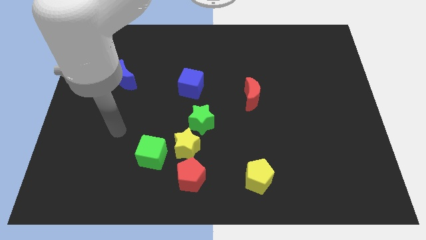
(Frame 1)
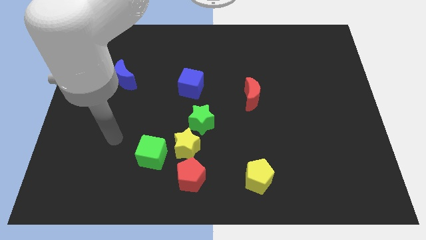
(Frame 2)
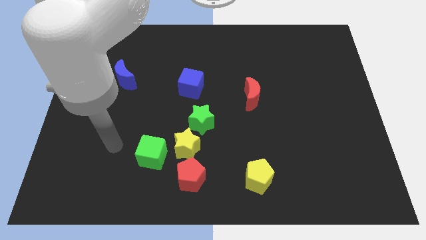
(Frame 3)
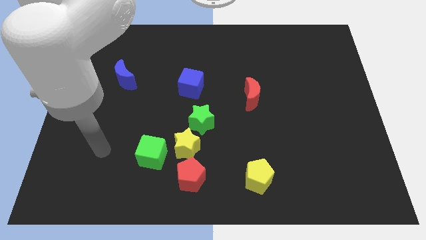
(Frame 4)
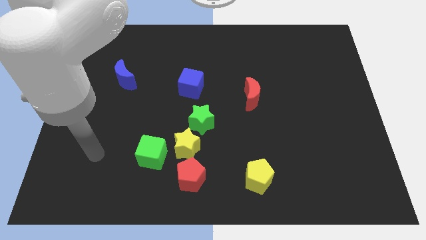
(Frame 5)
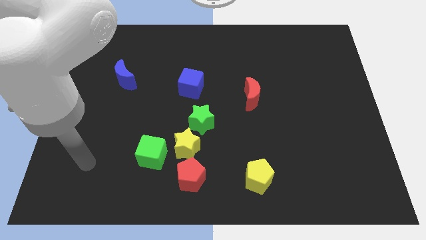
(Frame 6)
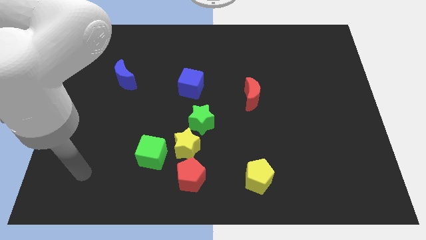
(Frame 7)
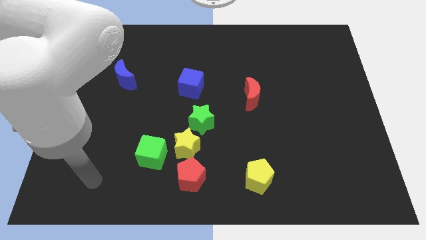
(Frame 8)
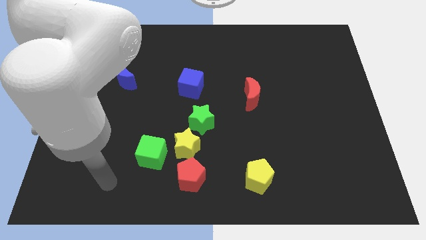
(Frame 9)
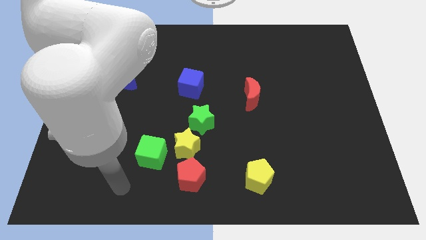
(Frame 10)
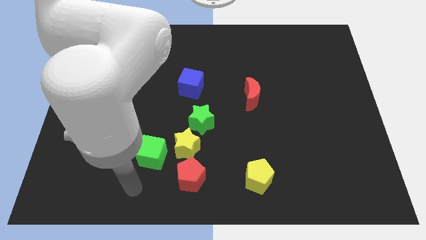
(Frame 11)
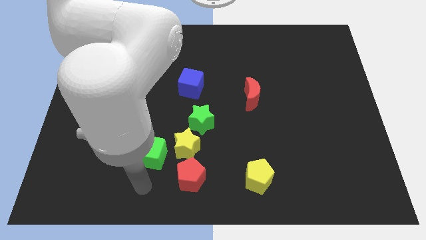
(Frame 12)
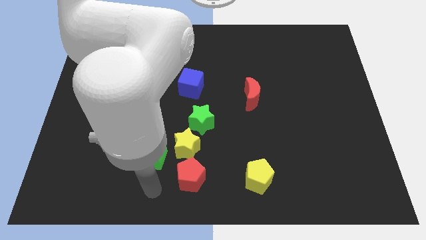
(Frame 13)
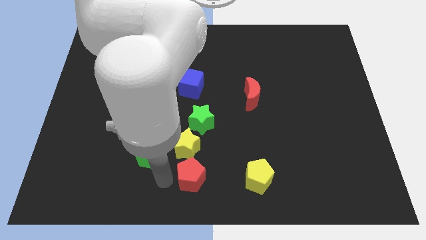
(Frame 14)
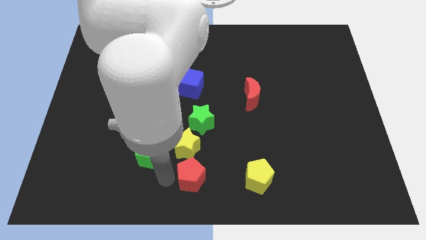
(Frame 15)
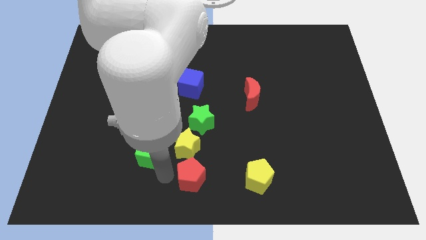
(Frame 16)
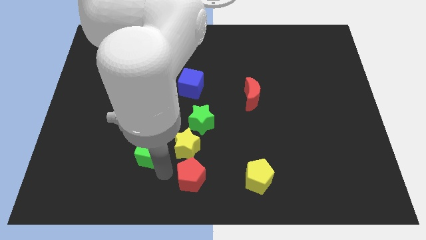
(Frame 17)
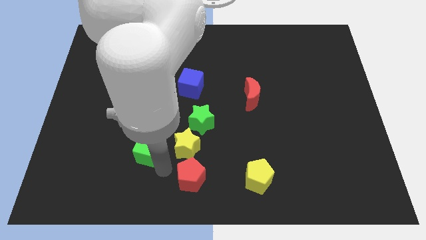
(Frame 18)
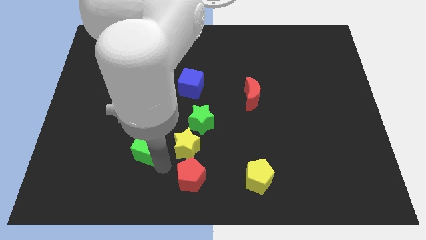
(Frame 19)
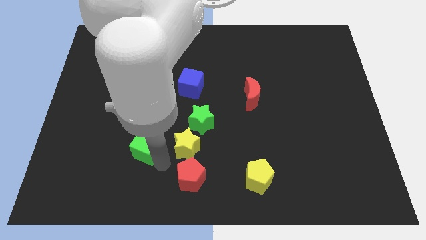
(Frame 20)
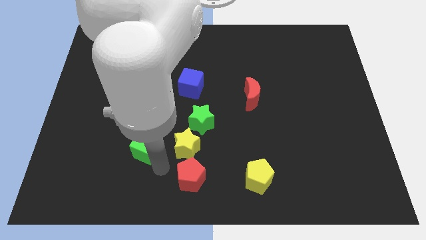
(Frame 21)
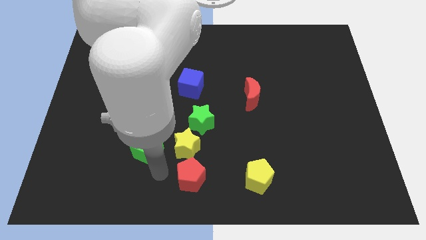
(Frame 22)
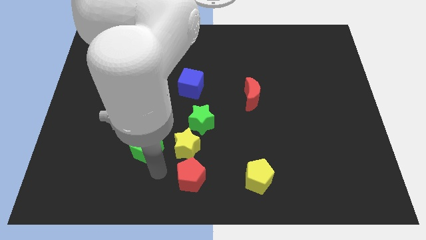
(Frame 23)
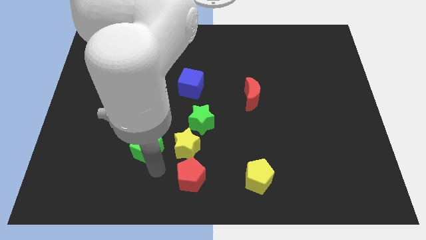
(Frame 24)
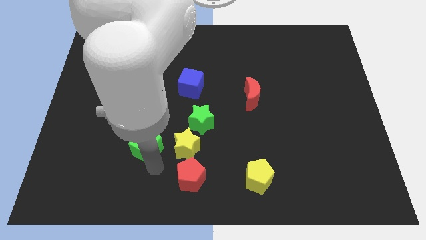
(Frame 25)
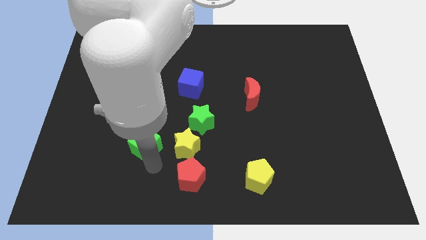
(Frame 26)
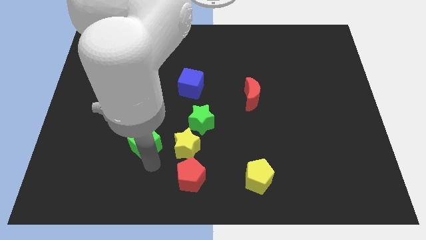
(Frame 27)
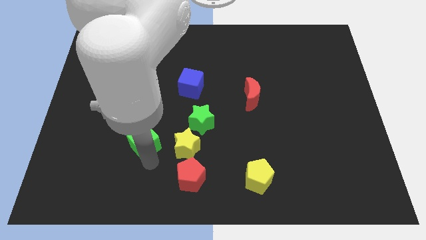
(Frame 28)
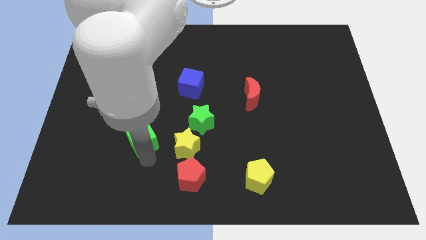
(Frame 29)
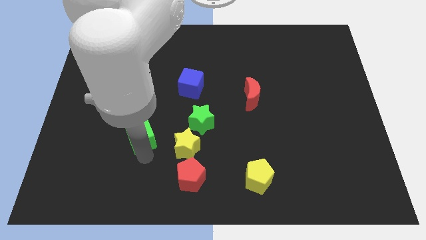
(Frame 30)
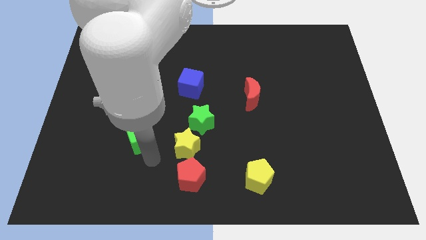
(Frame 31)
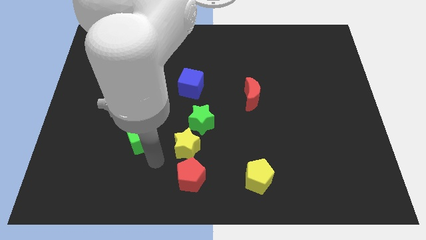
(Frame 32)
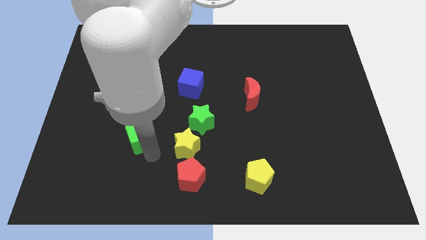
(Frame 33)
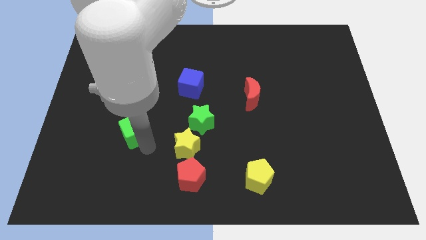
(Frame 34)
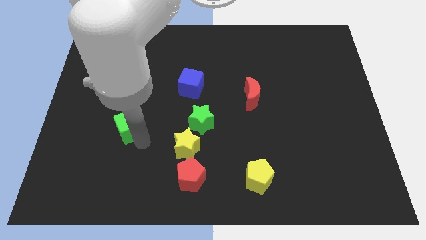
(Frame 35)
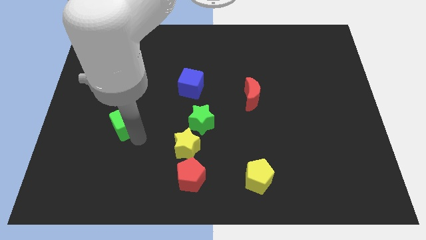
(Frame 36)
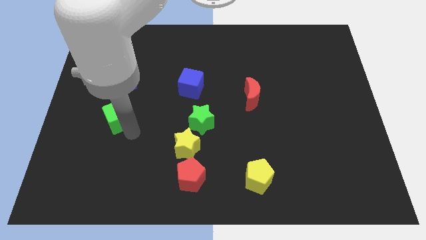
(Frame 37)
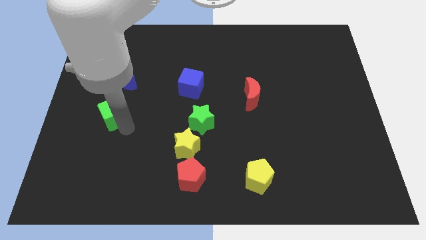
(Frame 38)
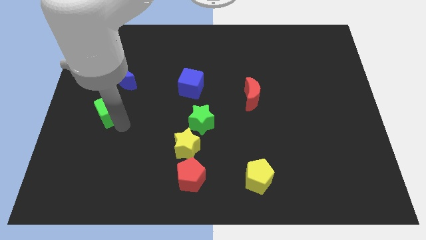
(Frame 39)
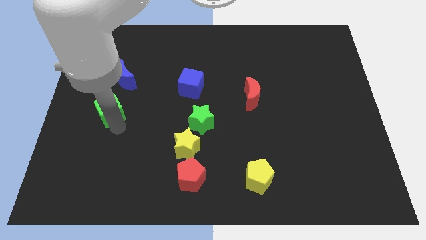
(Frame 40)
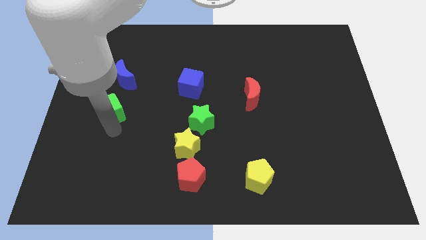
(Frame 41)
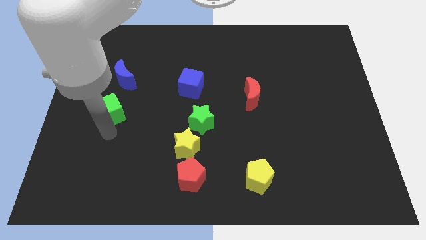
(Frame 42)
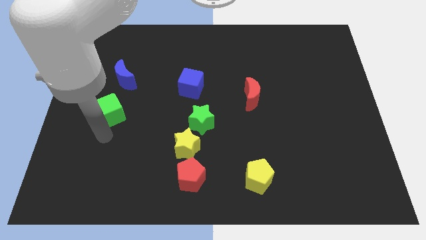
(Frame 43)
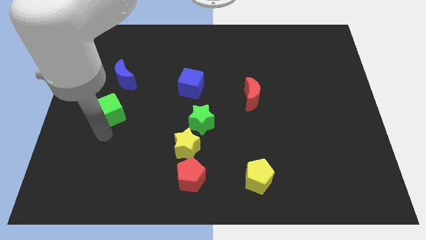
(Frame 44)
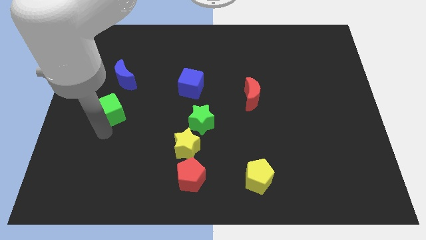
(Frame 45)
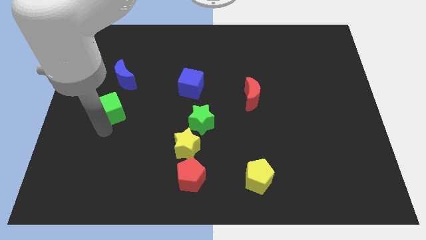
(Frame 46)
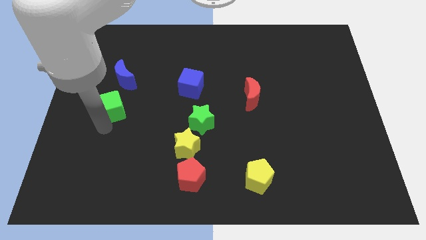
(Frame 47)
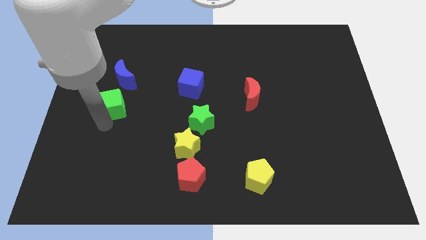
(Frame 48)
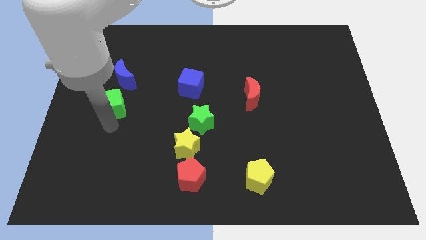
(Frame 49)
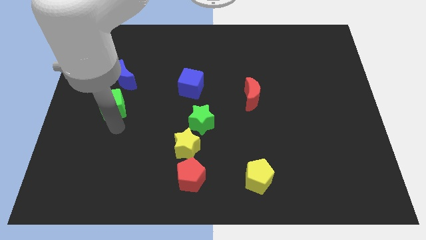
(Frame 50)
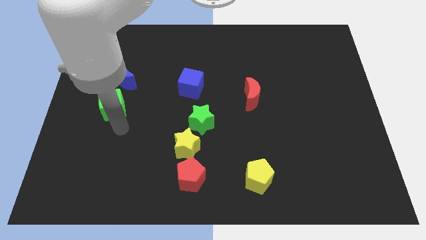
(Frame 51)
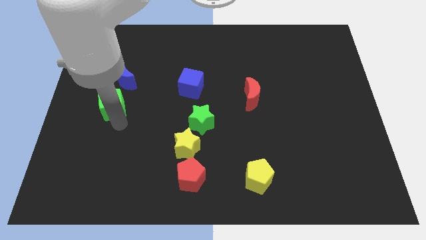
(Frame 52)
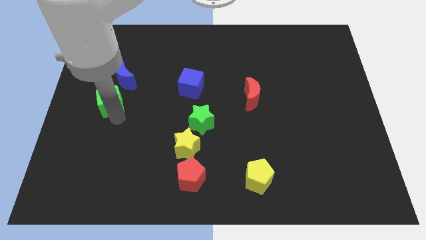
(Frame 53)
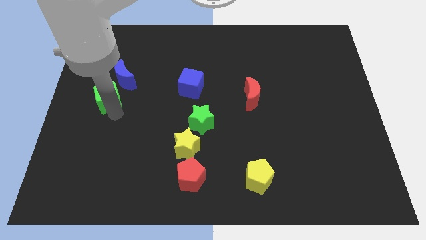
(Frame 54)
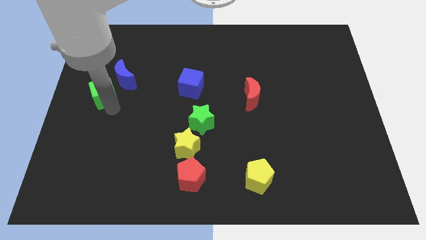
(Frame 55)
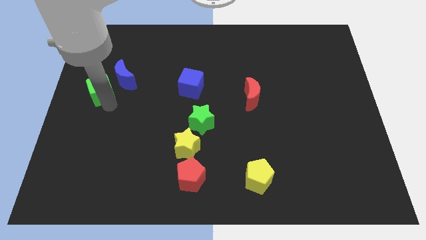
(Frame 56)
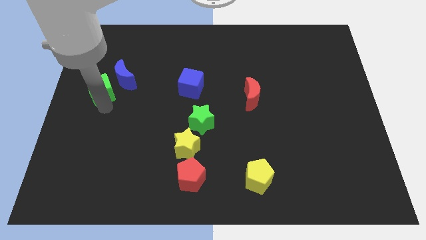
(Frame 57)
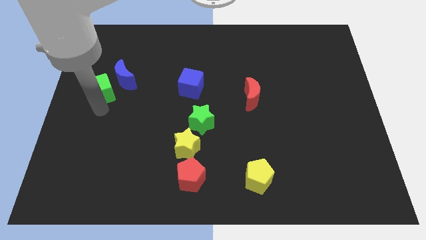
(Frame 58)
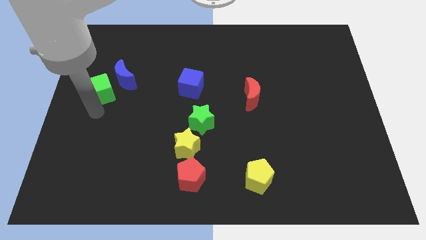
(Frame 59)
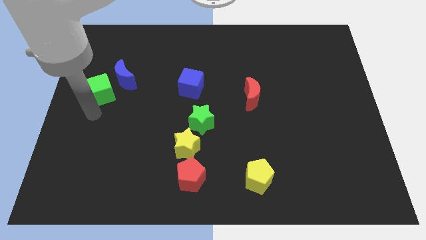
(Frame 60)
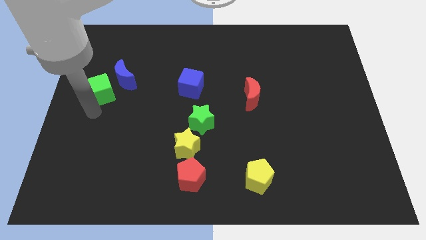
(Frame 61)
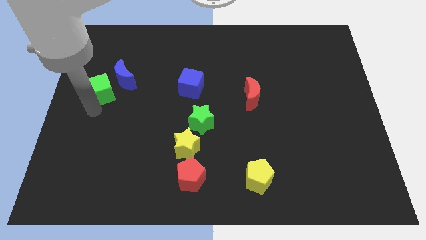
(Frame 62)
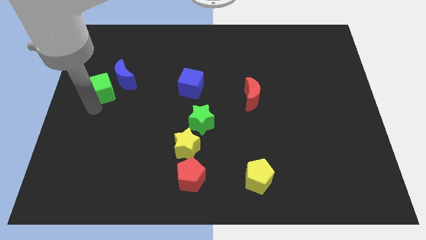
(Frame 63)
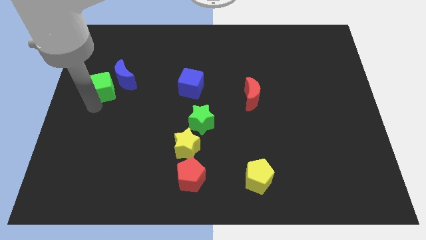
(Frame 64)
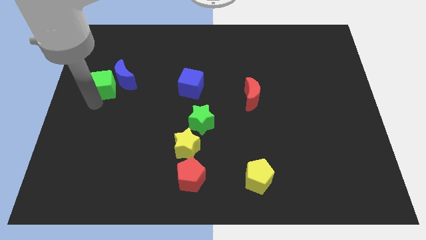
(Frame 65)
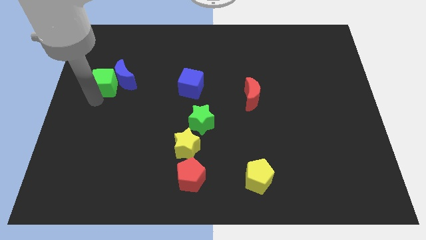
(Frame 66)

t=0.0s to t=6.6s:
move the green cube diagonally up and to the left of the blue moon

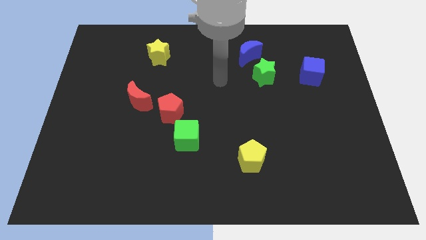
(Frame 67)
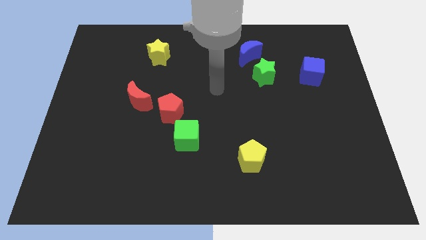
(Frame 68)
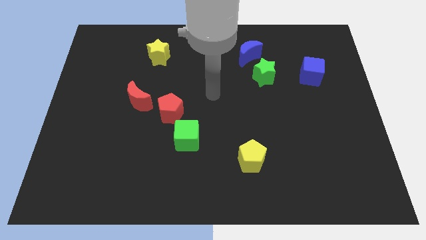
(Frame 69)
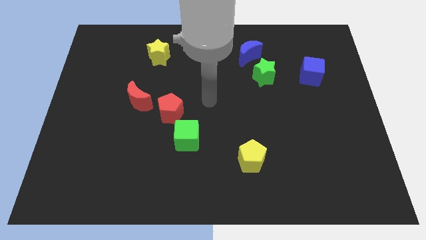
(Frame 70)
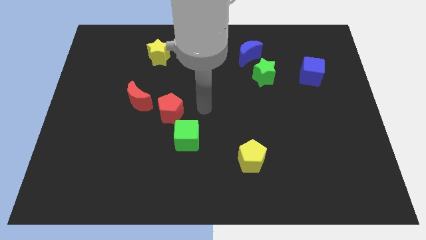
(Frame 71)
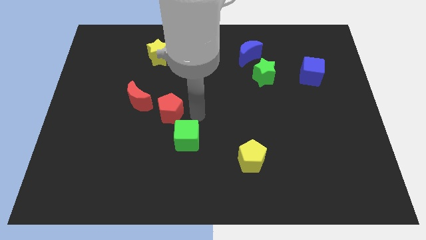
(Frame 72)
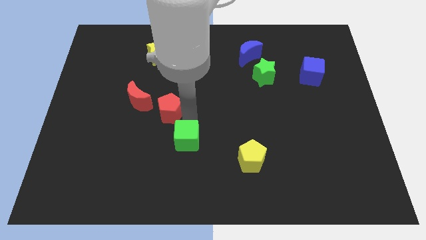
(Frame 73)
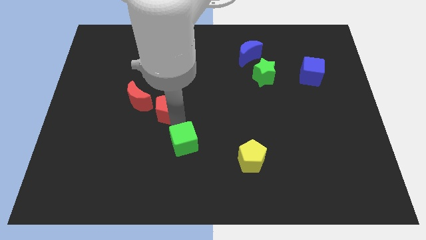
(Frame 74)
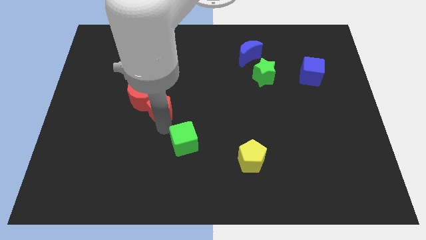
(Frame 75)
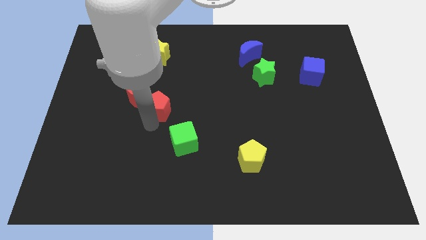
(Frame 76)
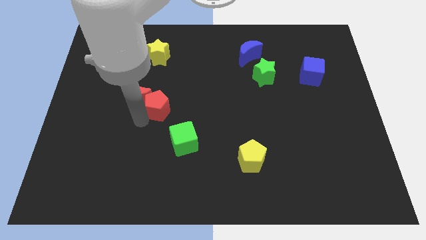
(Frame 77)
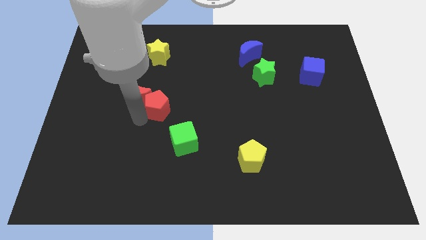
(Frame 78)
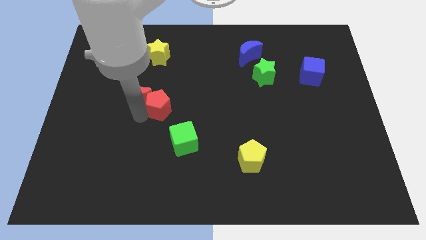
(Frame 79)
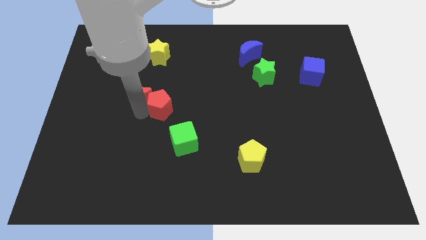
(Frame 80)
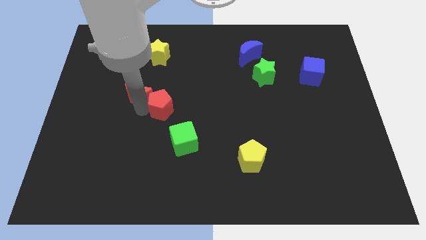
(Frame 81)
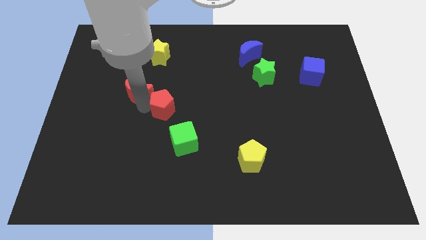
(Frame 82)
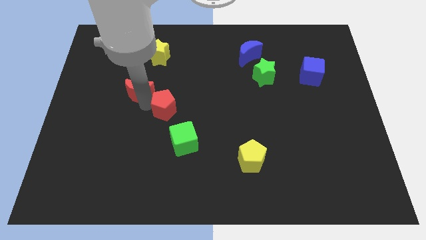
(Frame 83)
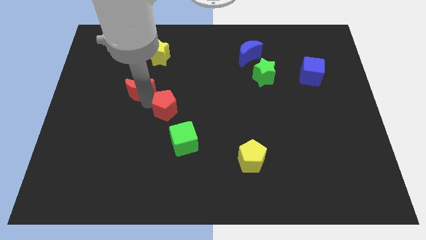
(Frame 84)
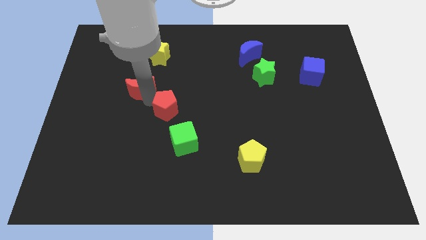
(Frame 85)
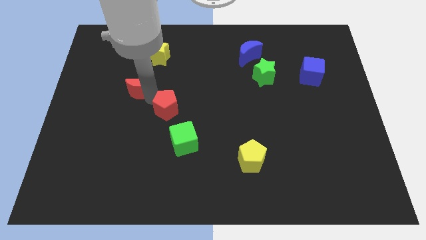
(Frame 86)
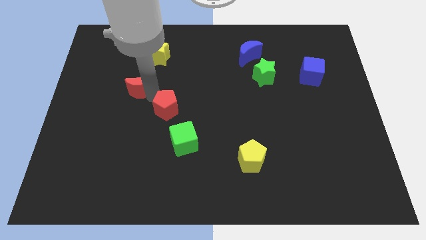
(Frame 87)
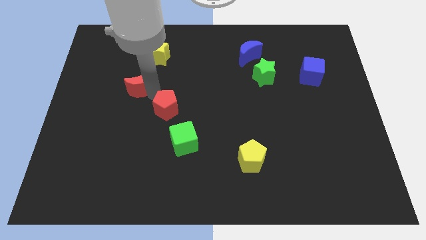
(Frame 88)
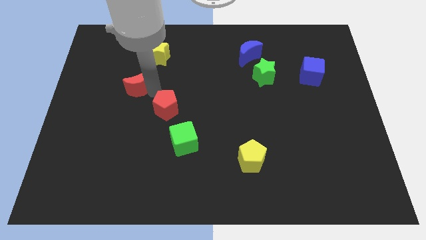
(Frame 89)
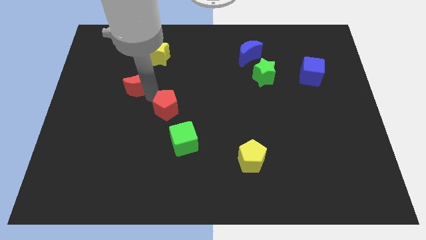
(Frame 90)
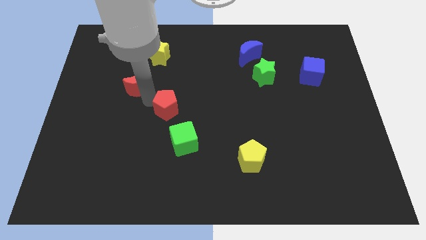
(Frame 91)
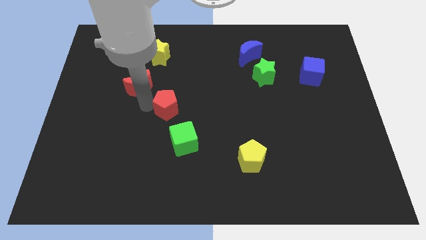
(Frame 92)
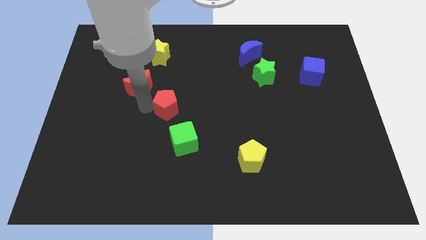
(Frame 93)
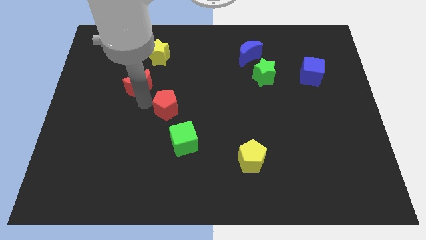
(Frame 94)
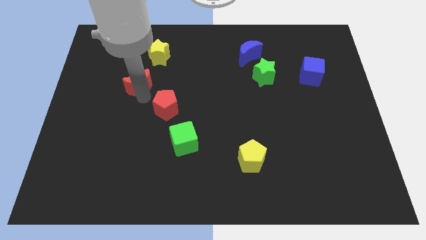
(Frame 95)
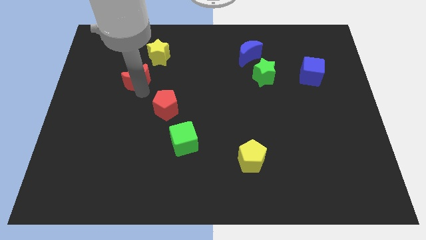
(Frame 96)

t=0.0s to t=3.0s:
slide the red moon to the bottom left side of the yellow star
